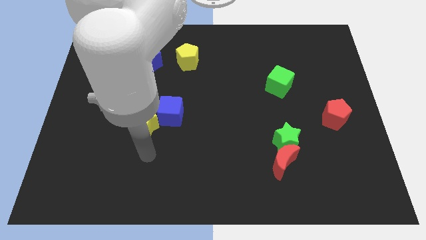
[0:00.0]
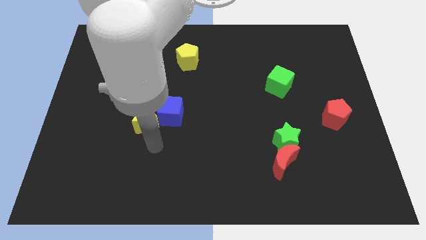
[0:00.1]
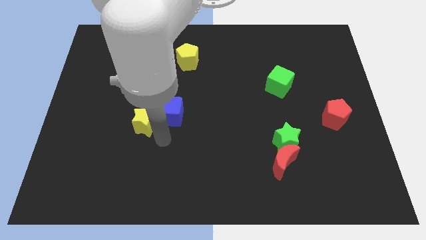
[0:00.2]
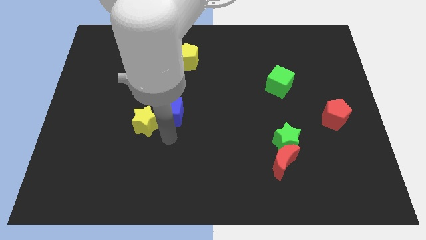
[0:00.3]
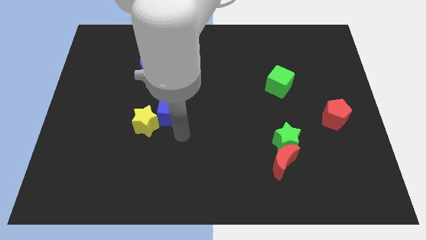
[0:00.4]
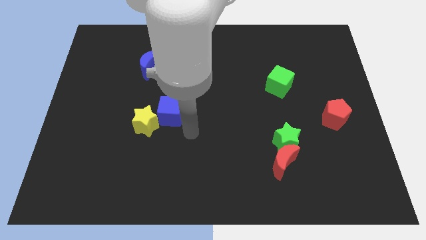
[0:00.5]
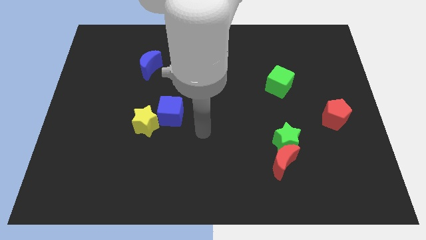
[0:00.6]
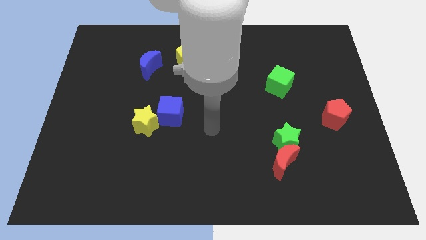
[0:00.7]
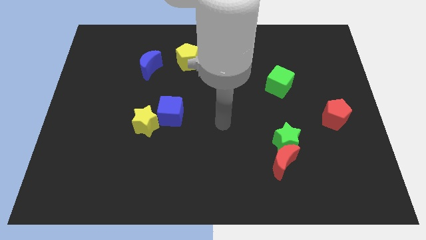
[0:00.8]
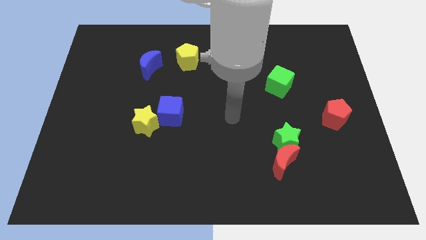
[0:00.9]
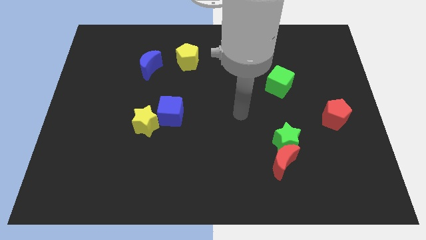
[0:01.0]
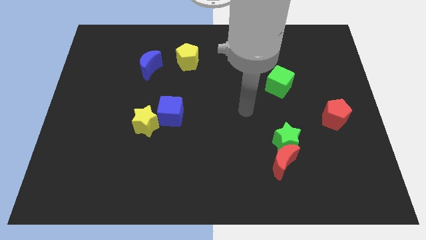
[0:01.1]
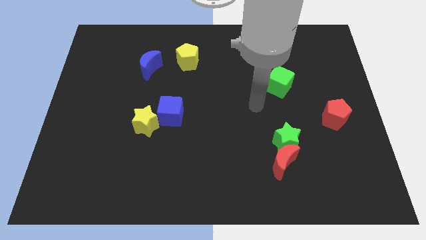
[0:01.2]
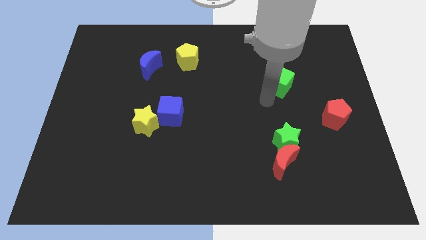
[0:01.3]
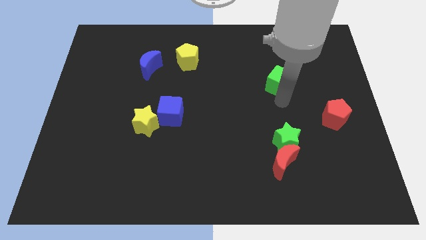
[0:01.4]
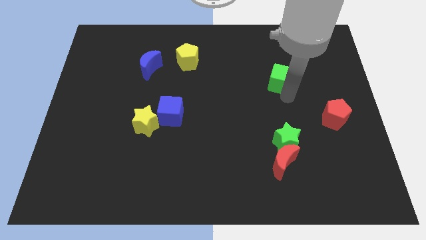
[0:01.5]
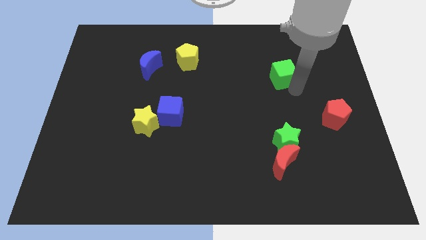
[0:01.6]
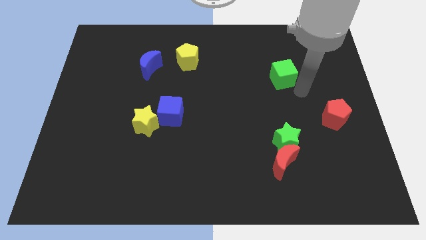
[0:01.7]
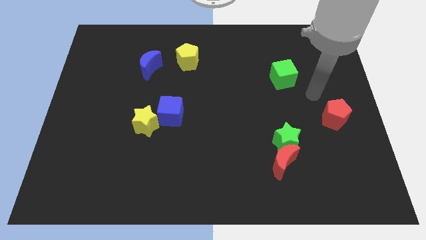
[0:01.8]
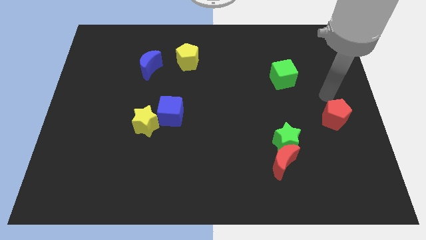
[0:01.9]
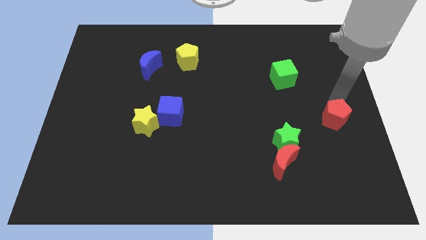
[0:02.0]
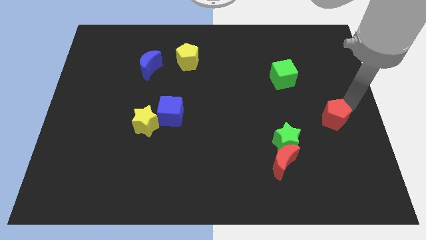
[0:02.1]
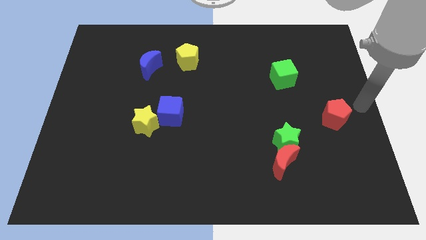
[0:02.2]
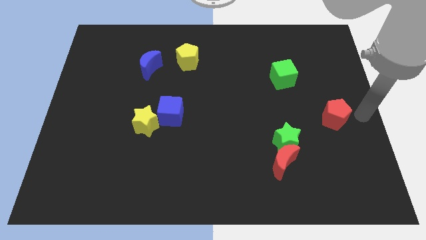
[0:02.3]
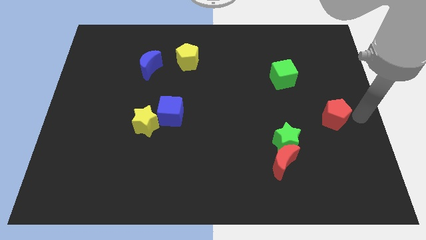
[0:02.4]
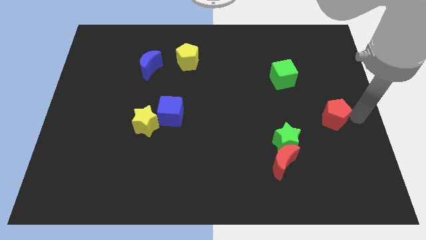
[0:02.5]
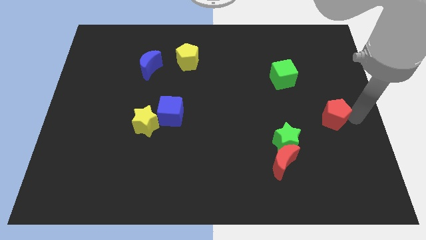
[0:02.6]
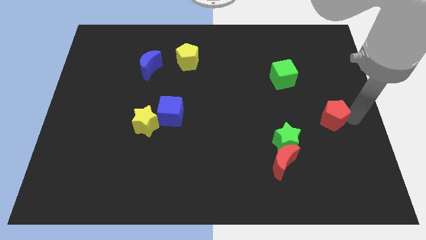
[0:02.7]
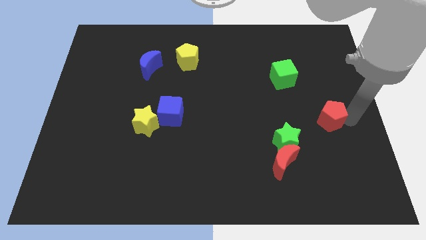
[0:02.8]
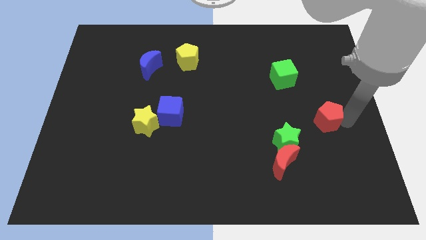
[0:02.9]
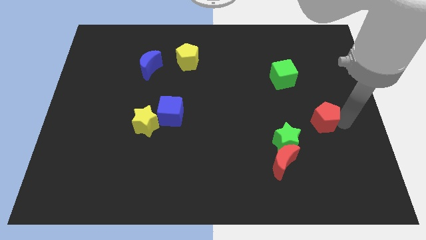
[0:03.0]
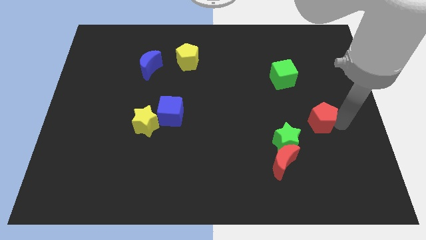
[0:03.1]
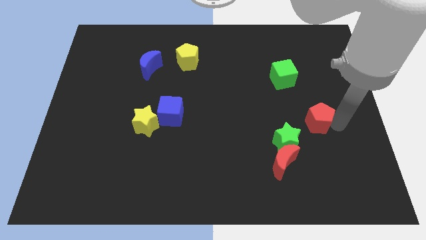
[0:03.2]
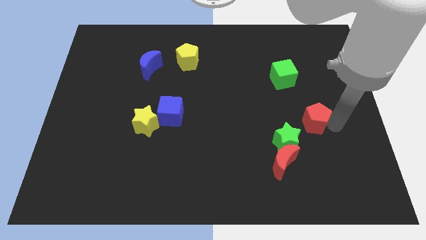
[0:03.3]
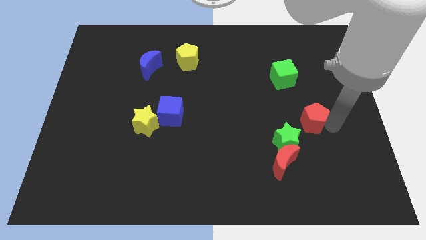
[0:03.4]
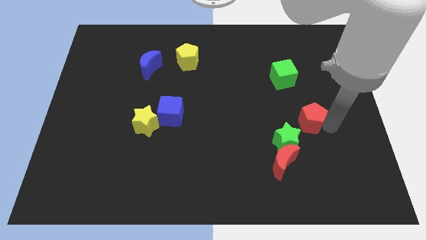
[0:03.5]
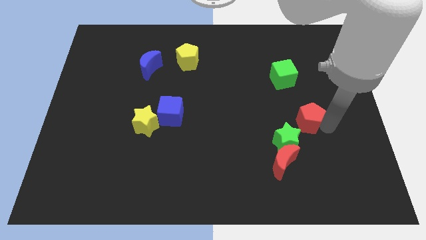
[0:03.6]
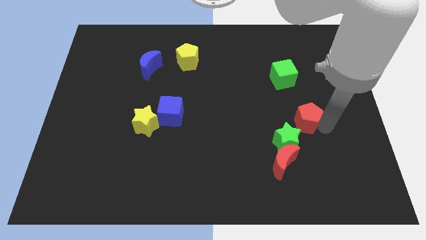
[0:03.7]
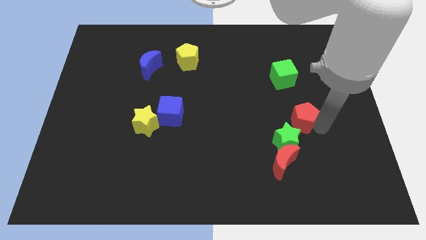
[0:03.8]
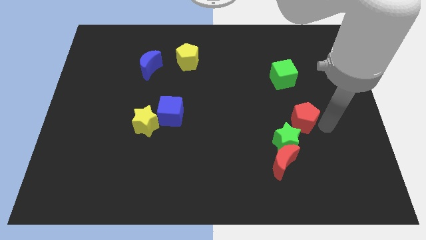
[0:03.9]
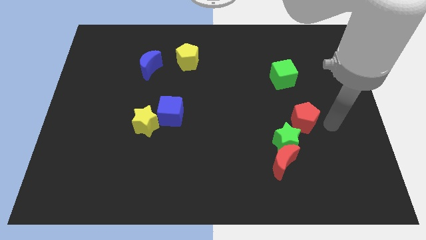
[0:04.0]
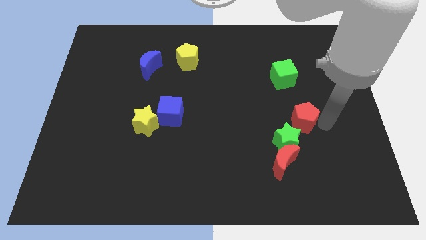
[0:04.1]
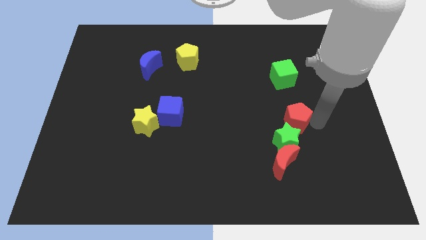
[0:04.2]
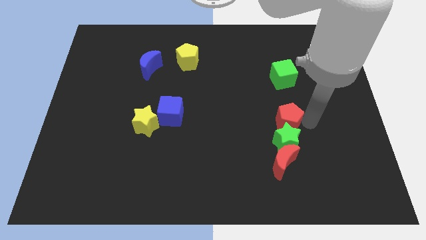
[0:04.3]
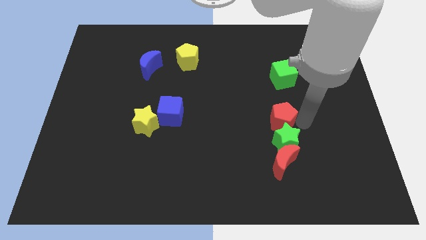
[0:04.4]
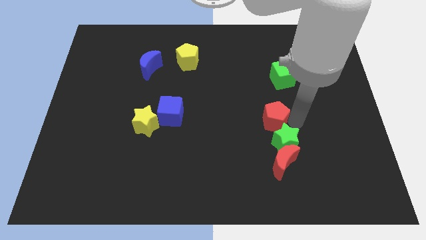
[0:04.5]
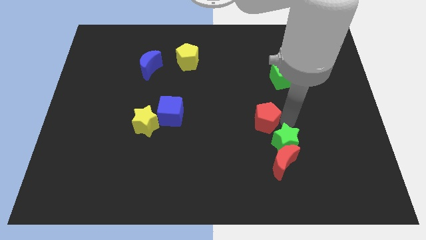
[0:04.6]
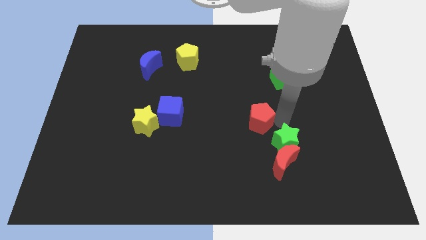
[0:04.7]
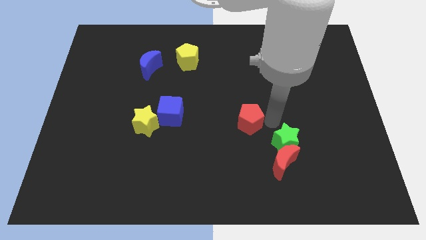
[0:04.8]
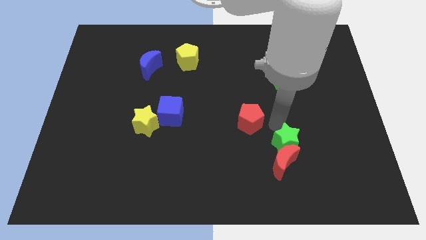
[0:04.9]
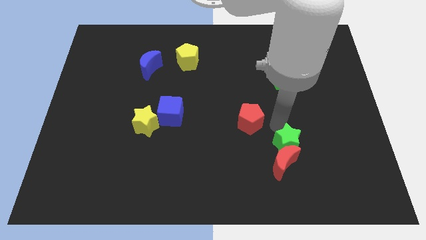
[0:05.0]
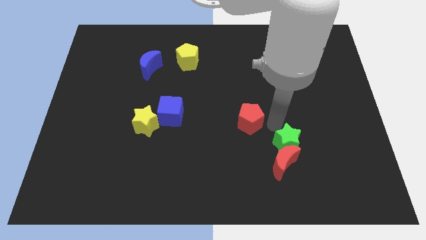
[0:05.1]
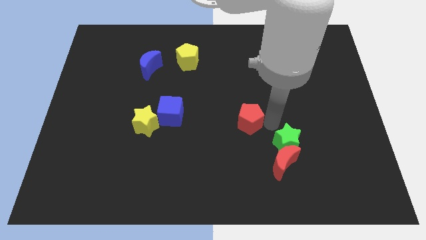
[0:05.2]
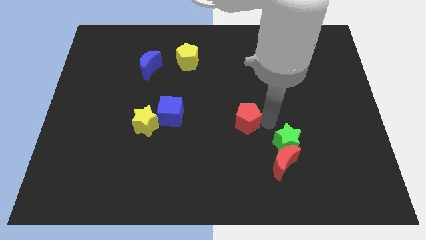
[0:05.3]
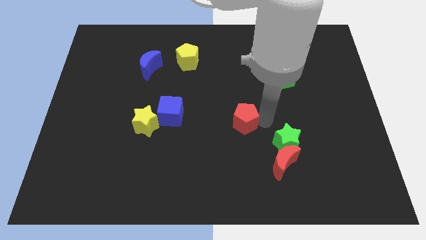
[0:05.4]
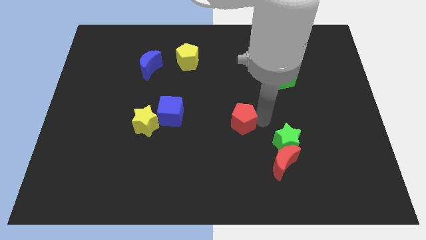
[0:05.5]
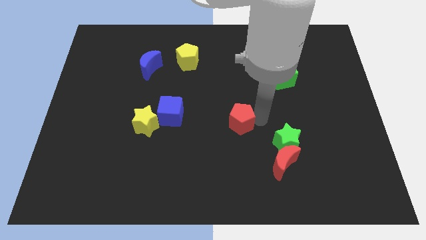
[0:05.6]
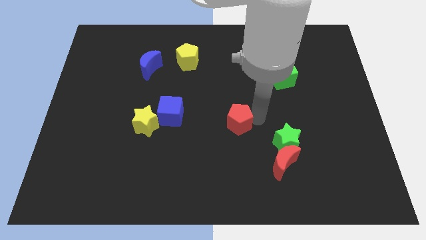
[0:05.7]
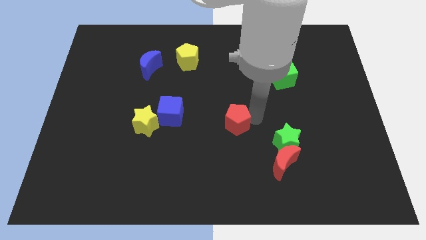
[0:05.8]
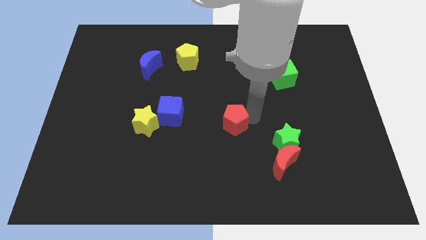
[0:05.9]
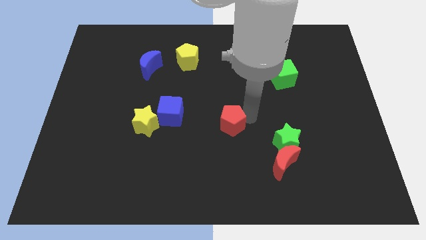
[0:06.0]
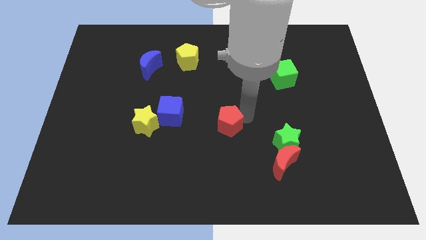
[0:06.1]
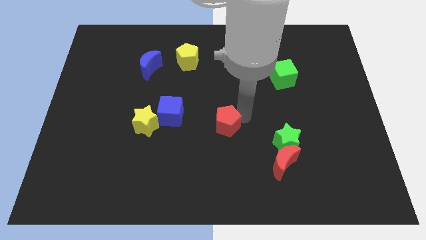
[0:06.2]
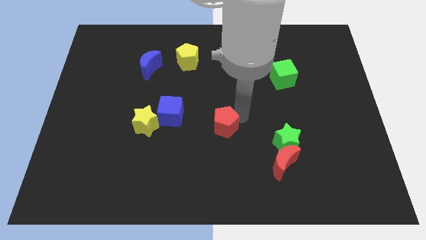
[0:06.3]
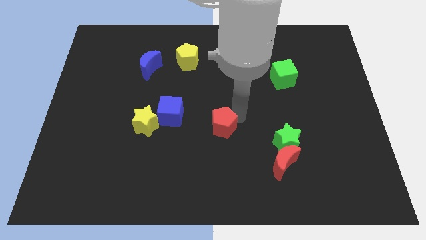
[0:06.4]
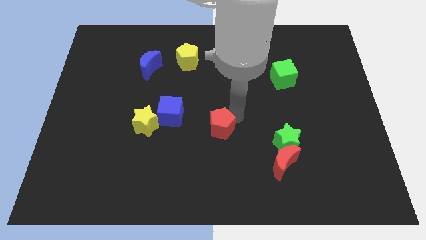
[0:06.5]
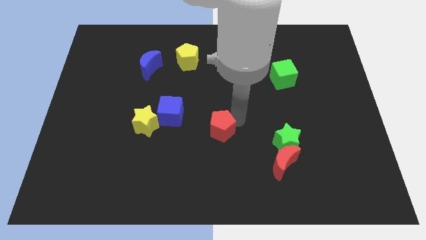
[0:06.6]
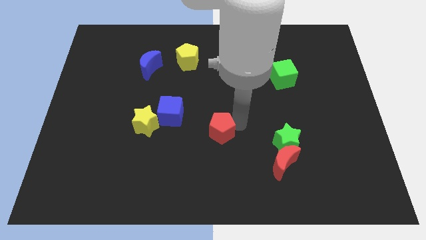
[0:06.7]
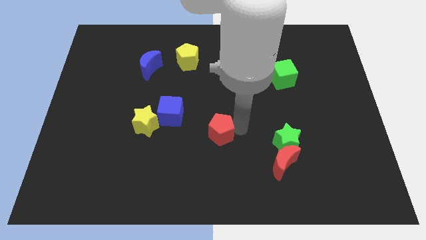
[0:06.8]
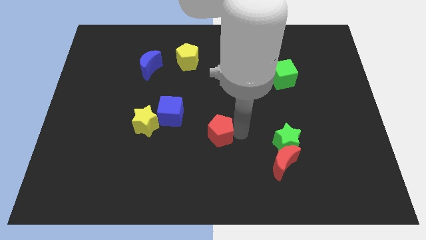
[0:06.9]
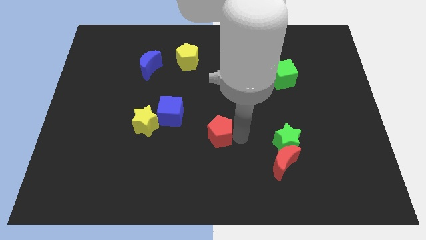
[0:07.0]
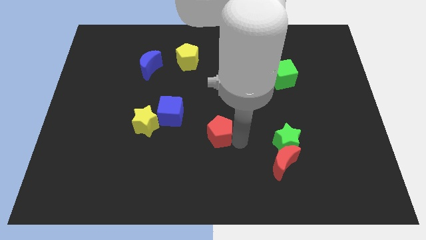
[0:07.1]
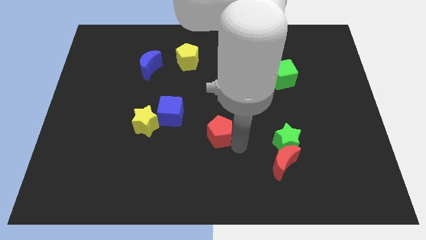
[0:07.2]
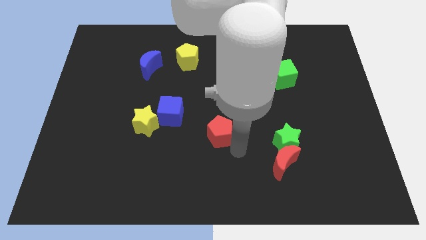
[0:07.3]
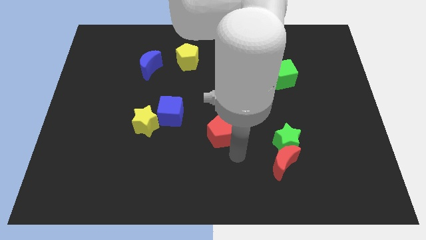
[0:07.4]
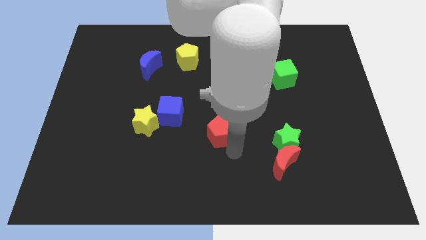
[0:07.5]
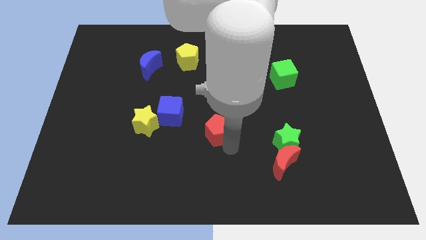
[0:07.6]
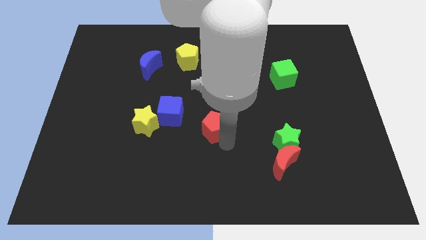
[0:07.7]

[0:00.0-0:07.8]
move the red pentagon to the right side of the yellow star
